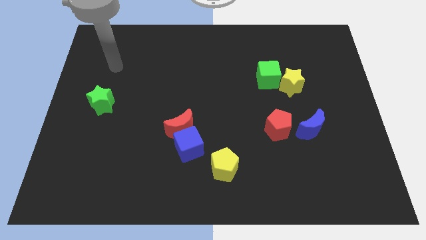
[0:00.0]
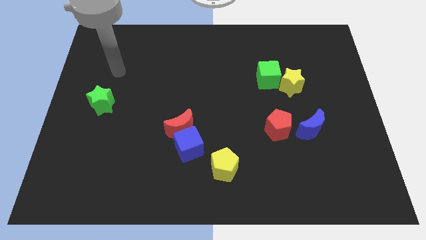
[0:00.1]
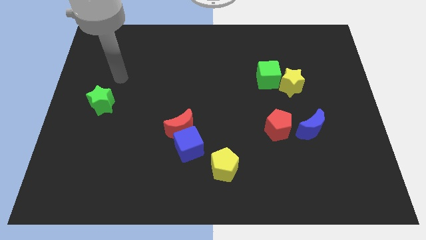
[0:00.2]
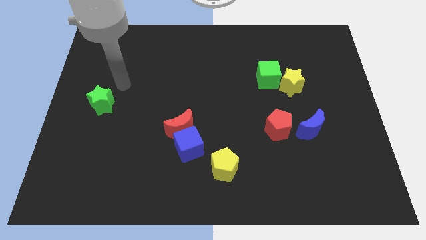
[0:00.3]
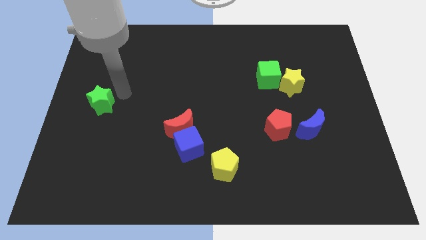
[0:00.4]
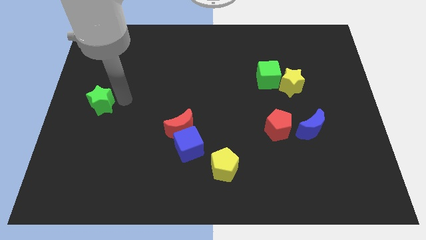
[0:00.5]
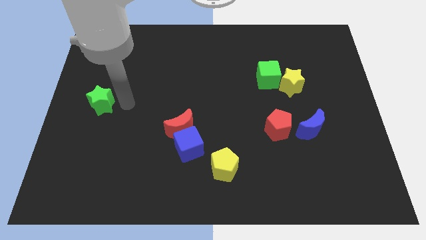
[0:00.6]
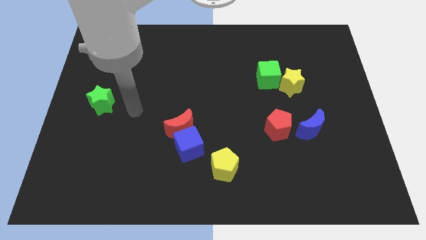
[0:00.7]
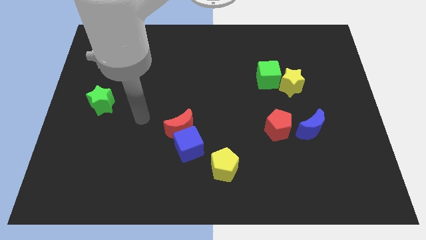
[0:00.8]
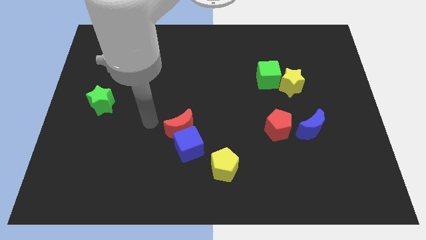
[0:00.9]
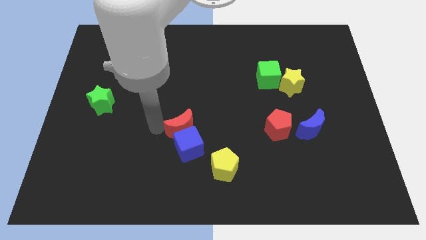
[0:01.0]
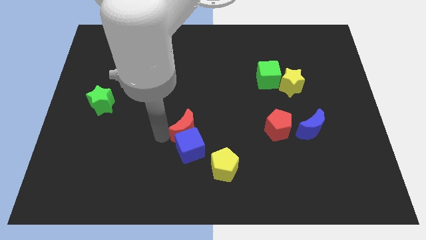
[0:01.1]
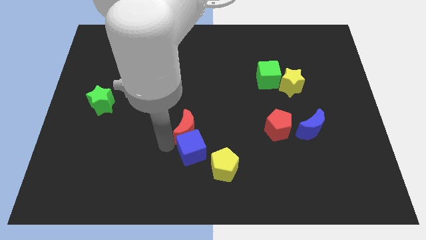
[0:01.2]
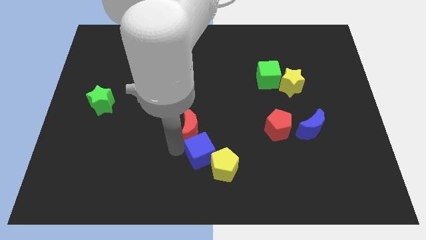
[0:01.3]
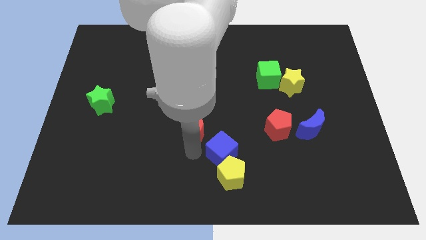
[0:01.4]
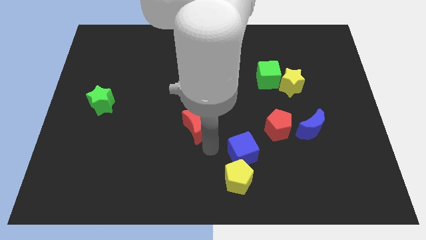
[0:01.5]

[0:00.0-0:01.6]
move the red moon away from the blue cube

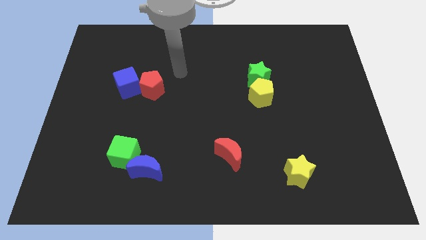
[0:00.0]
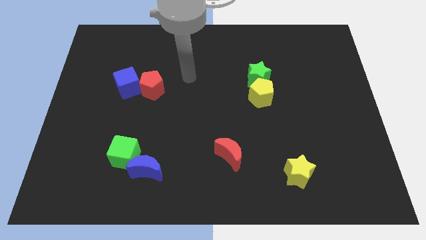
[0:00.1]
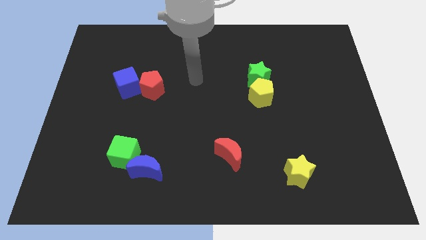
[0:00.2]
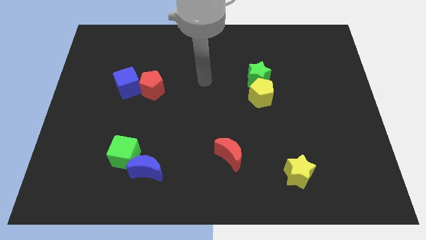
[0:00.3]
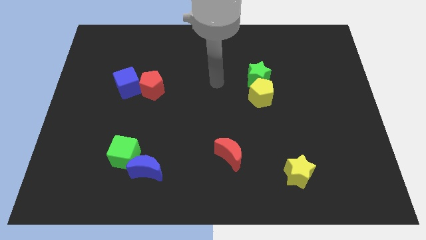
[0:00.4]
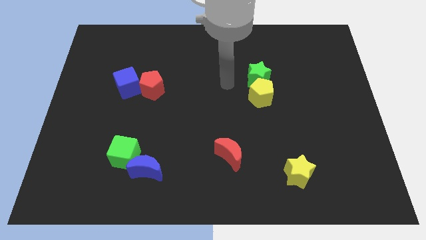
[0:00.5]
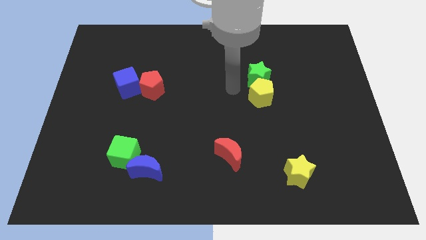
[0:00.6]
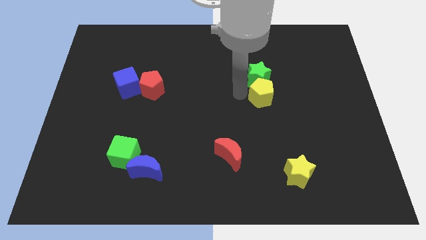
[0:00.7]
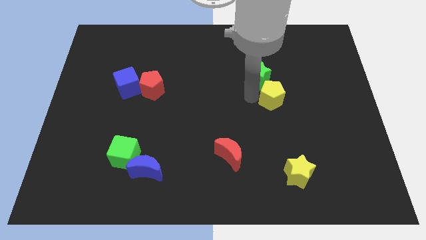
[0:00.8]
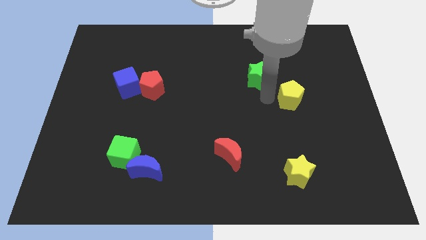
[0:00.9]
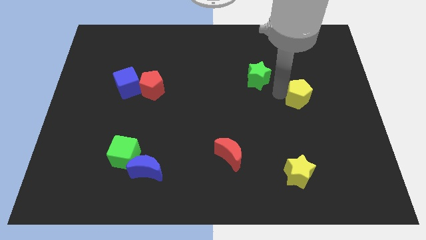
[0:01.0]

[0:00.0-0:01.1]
pull the green star apart from the yellow pentagon

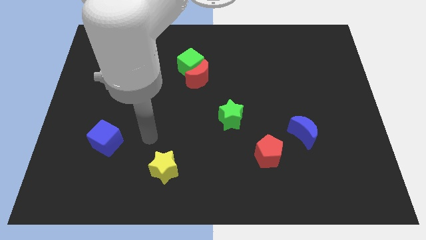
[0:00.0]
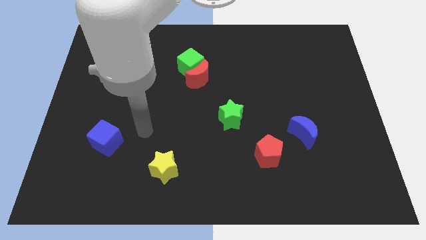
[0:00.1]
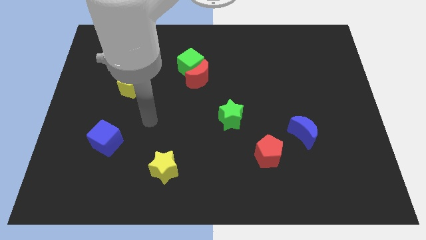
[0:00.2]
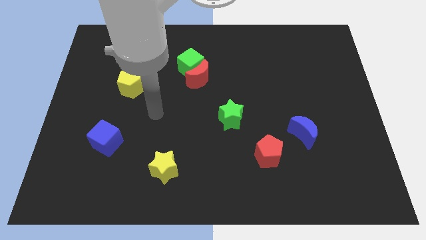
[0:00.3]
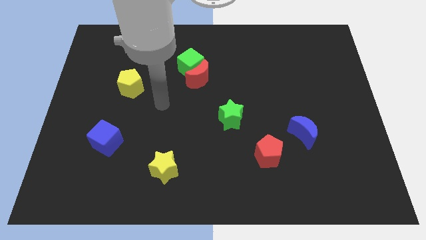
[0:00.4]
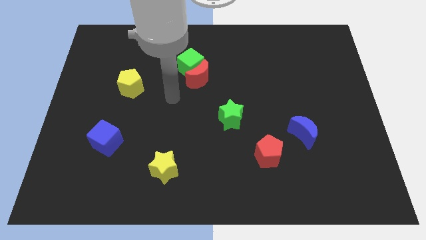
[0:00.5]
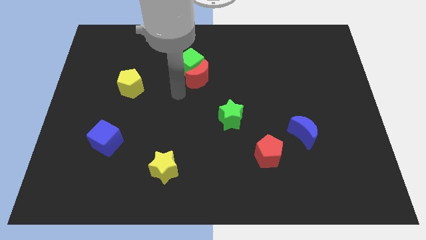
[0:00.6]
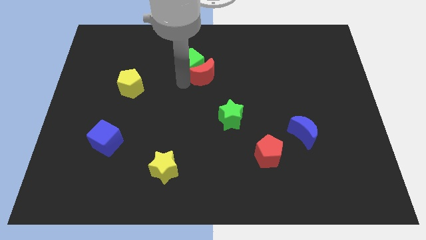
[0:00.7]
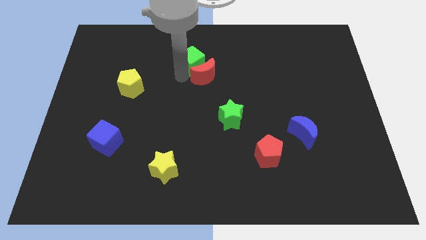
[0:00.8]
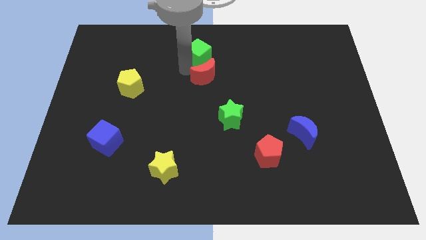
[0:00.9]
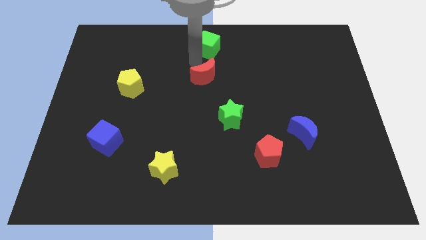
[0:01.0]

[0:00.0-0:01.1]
separate the red moon from the green cube

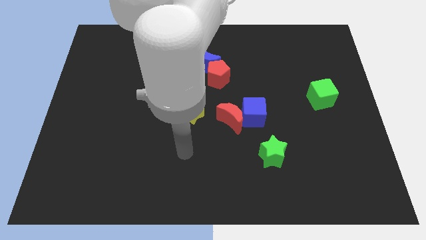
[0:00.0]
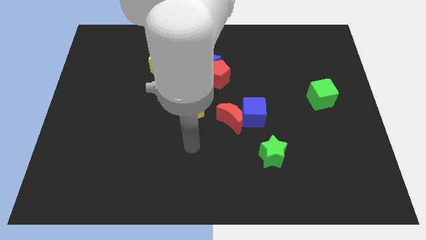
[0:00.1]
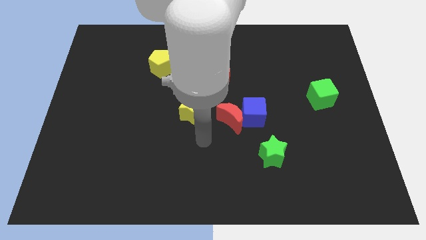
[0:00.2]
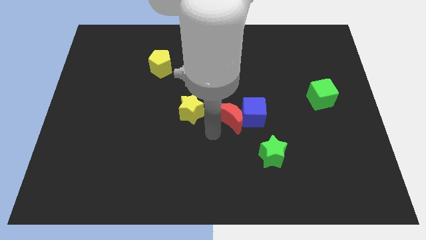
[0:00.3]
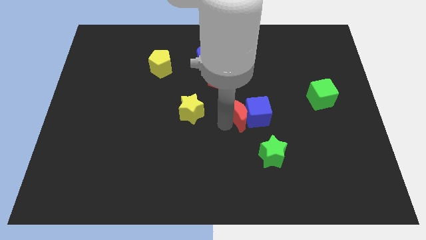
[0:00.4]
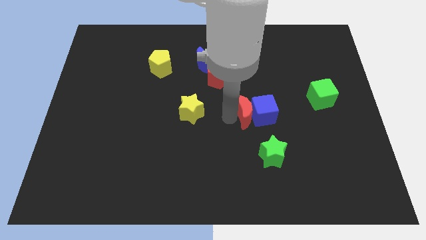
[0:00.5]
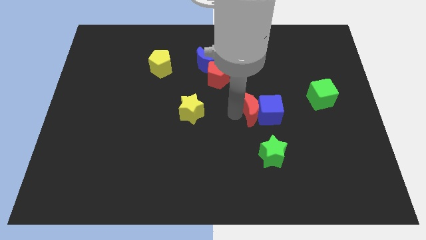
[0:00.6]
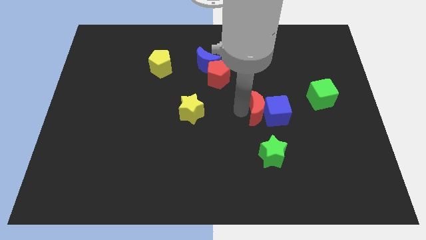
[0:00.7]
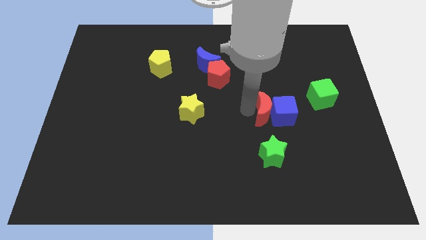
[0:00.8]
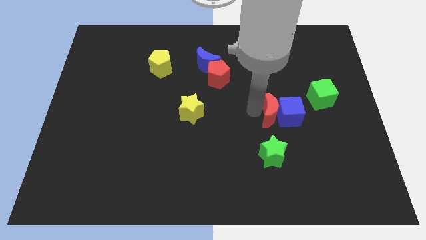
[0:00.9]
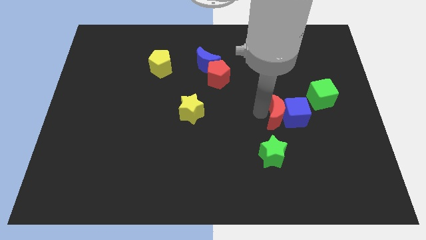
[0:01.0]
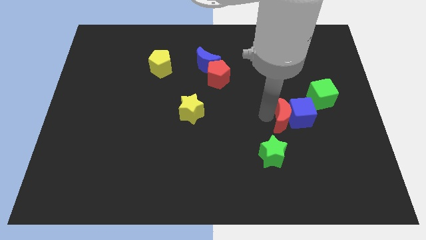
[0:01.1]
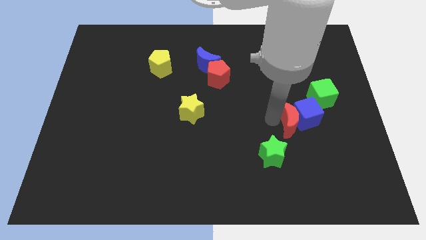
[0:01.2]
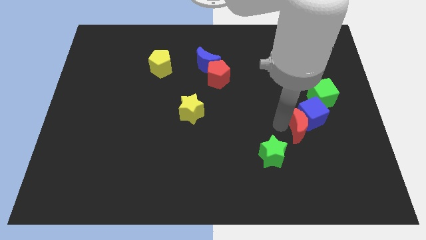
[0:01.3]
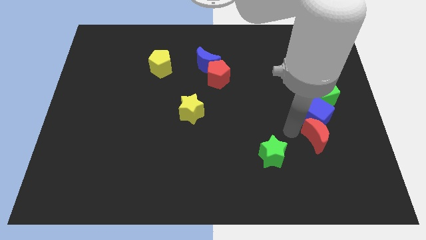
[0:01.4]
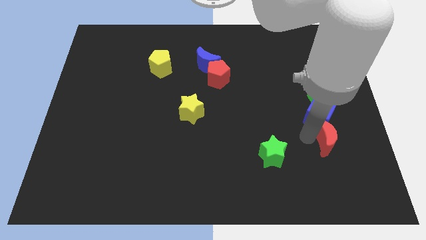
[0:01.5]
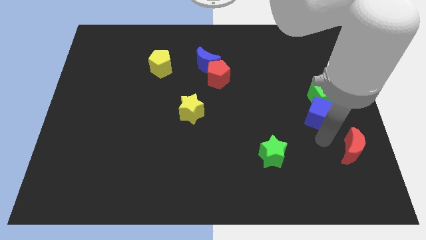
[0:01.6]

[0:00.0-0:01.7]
separate the blue cube from the red moon

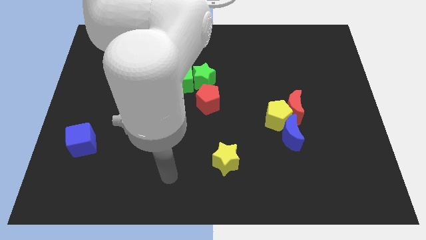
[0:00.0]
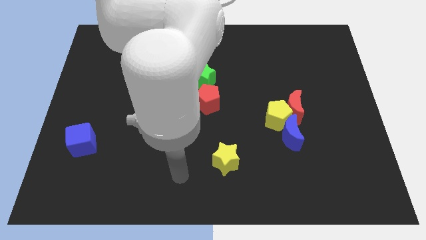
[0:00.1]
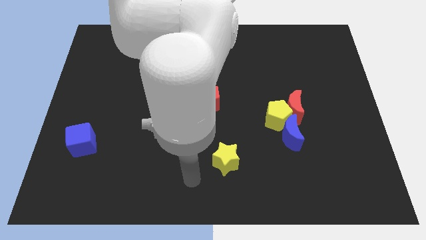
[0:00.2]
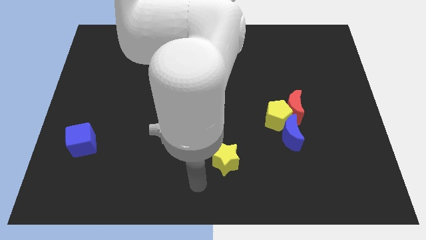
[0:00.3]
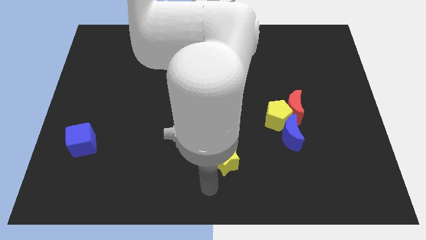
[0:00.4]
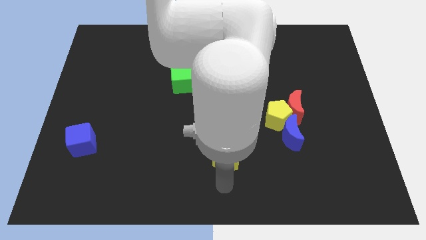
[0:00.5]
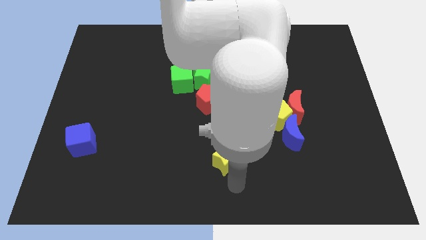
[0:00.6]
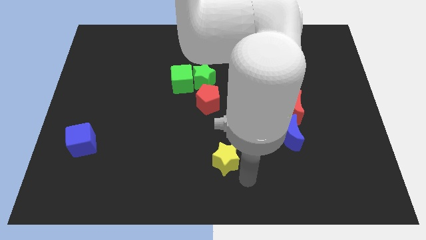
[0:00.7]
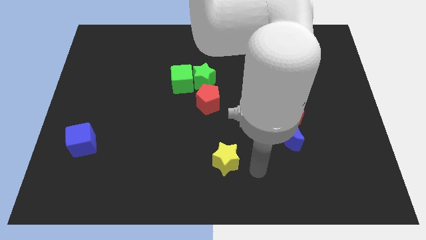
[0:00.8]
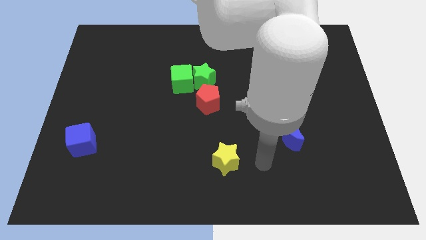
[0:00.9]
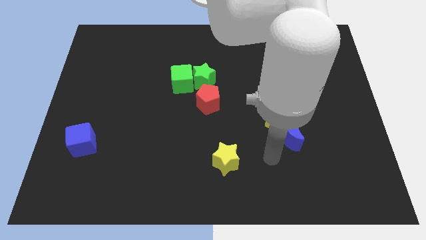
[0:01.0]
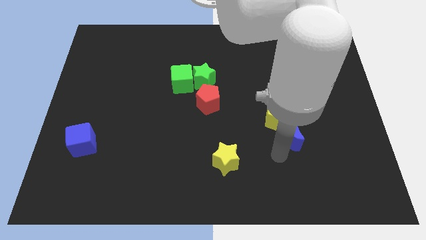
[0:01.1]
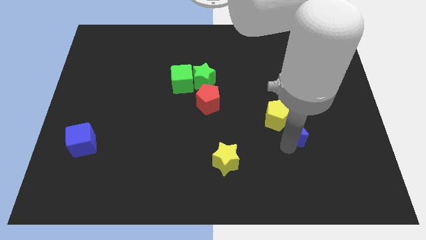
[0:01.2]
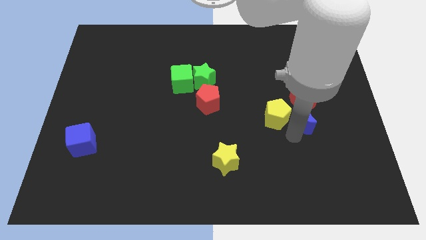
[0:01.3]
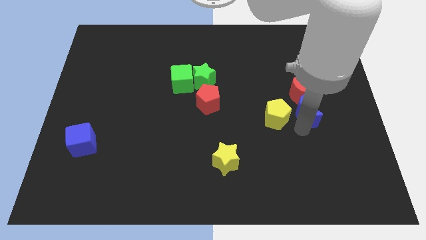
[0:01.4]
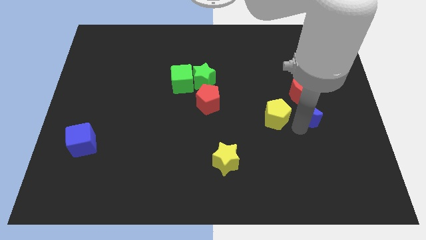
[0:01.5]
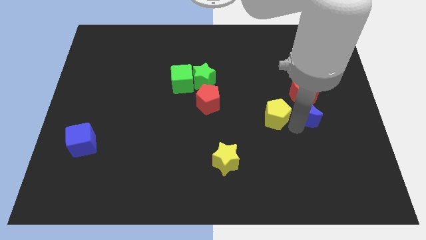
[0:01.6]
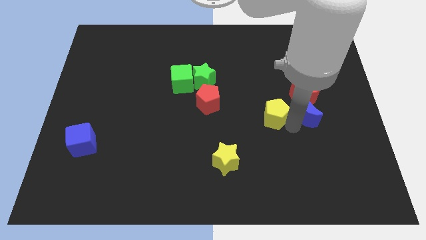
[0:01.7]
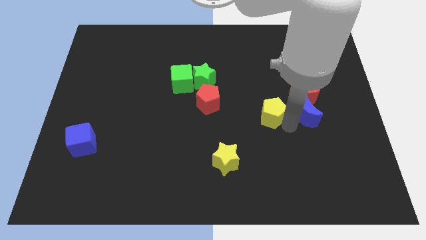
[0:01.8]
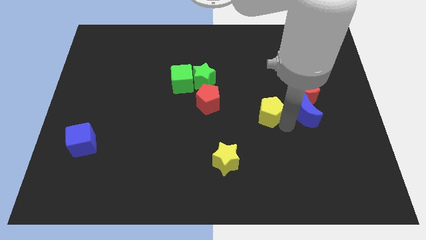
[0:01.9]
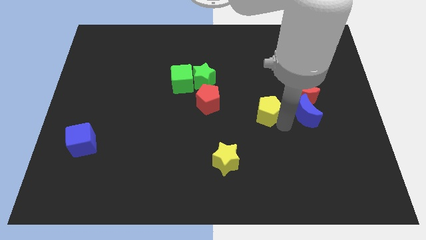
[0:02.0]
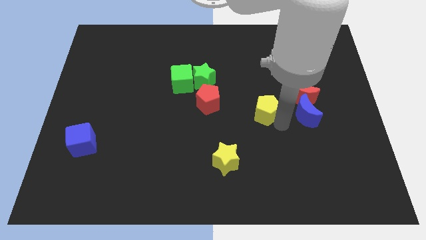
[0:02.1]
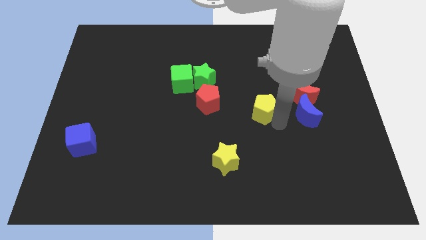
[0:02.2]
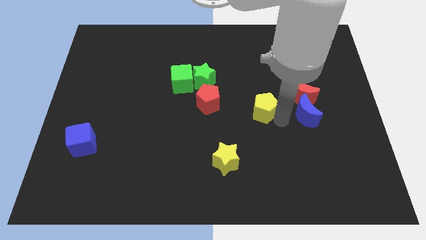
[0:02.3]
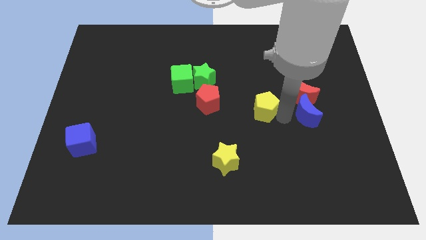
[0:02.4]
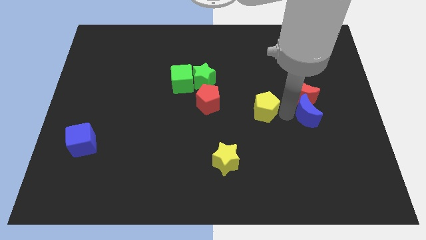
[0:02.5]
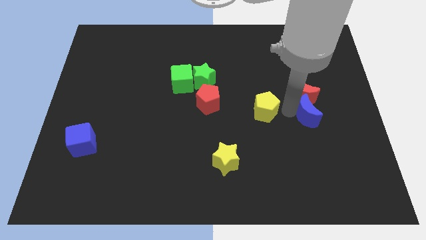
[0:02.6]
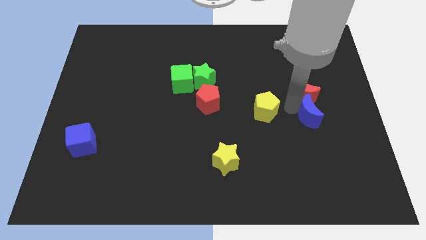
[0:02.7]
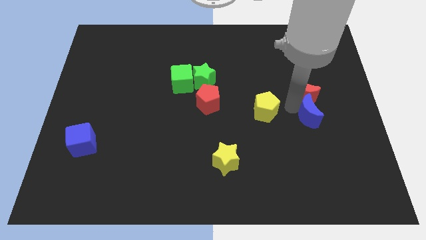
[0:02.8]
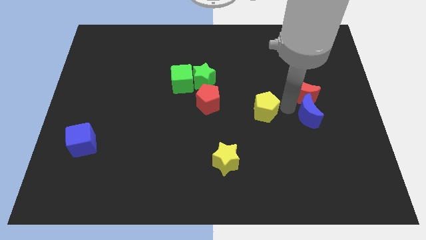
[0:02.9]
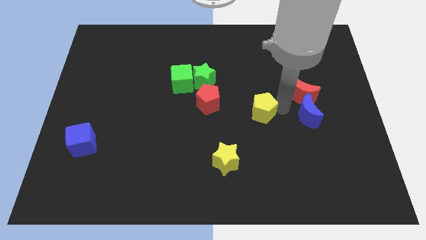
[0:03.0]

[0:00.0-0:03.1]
move the yellow pentagon away from the red moon and blue moon

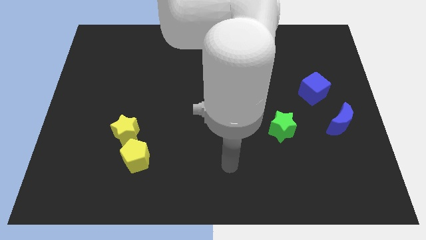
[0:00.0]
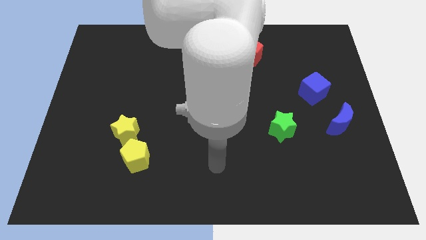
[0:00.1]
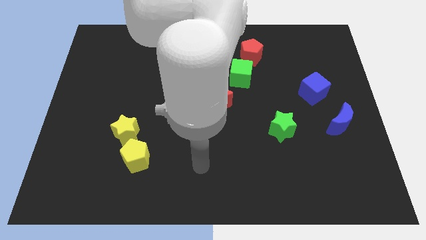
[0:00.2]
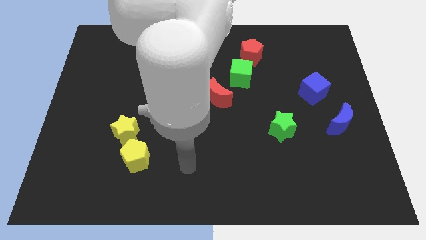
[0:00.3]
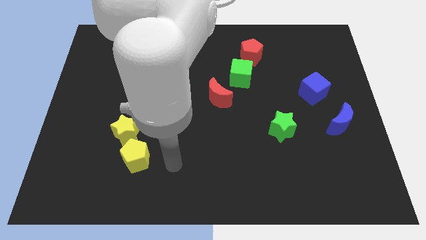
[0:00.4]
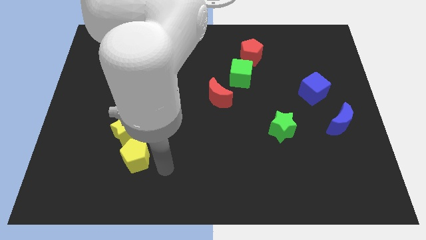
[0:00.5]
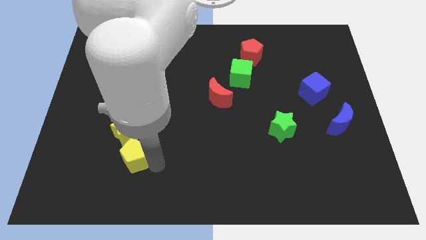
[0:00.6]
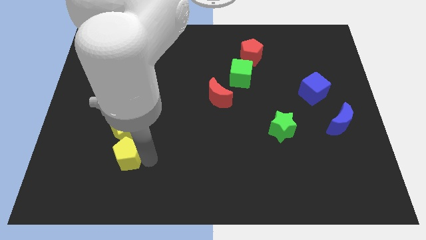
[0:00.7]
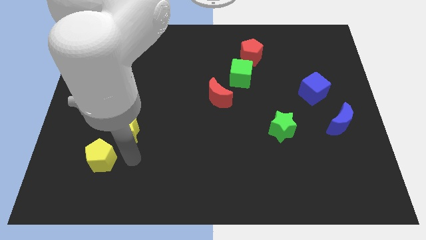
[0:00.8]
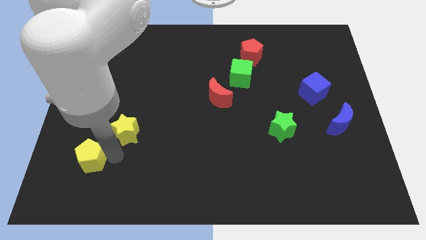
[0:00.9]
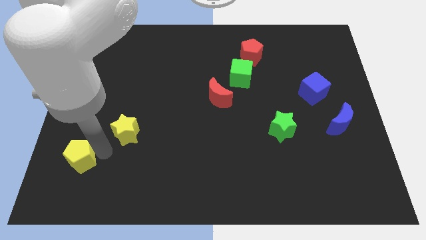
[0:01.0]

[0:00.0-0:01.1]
separate the yellow star from the yellow pentagon
